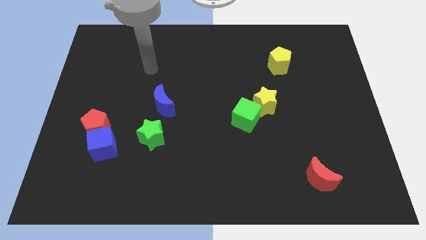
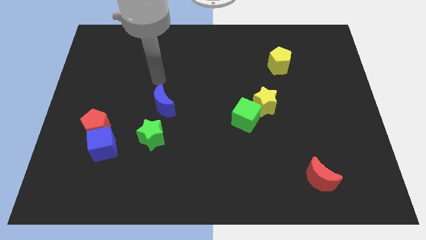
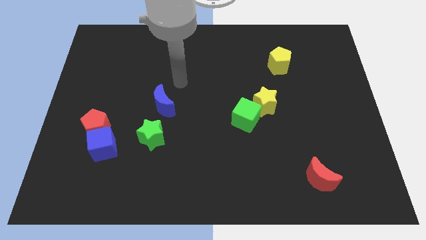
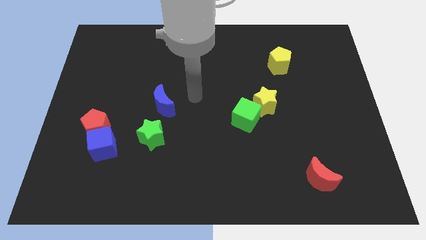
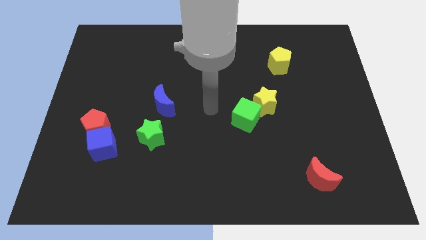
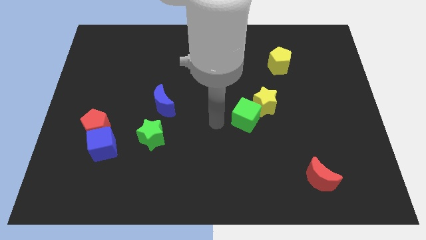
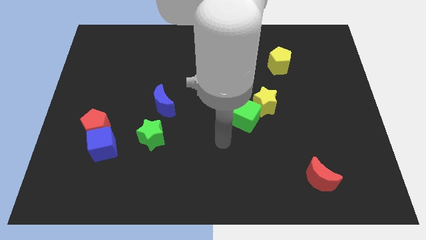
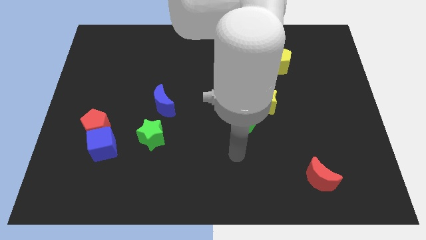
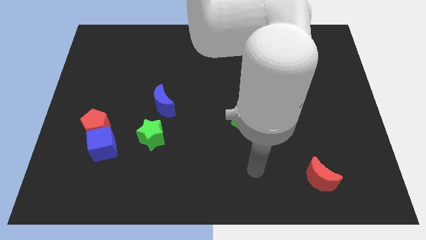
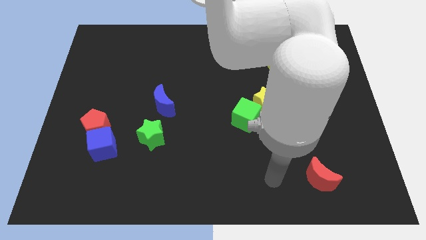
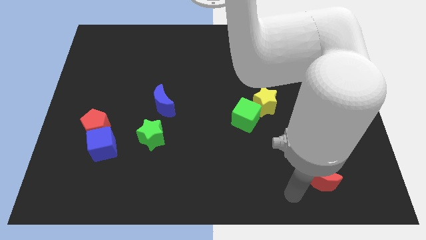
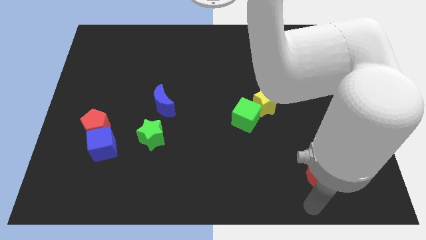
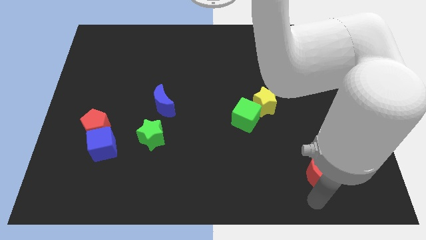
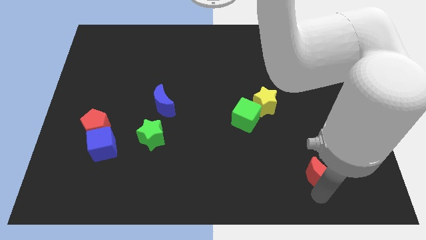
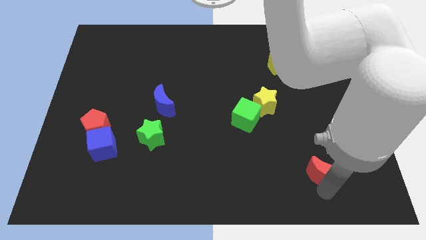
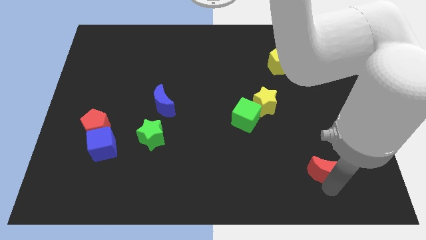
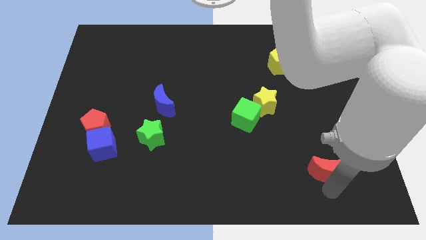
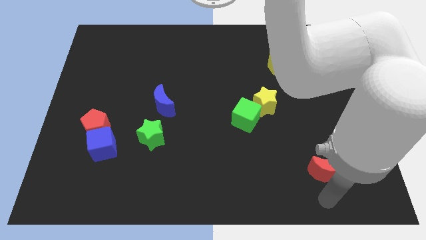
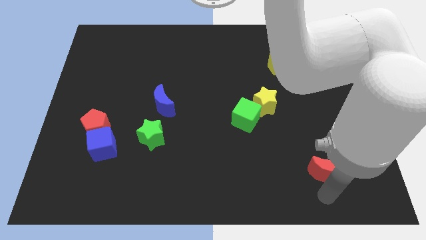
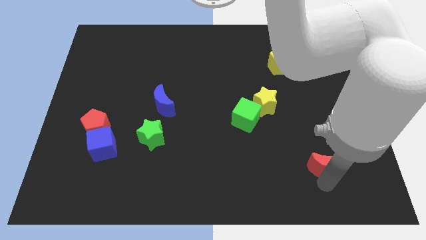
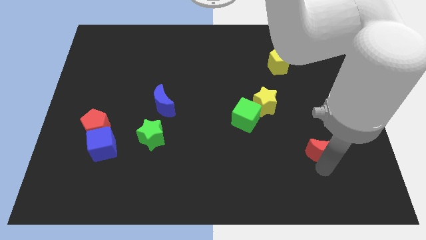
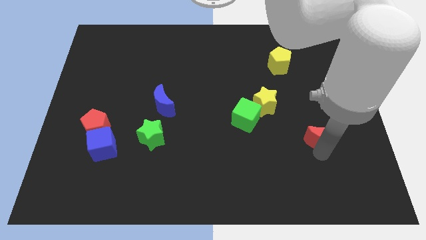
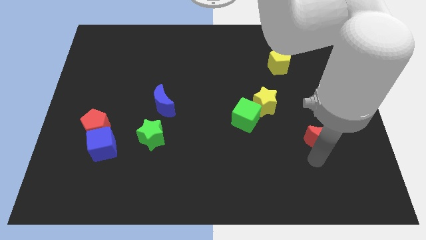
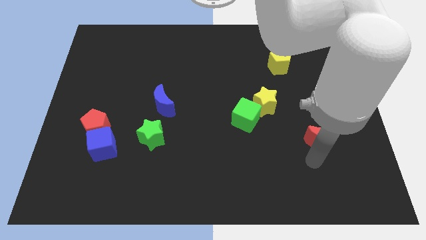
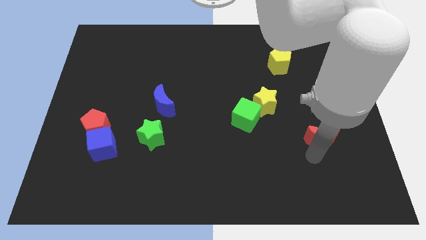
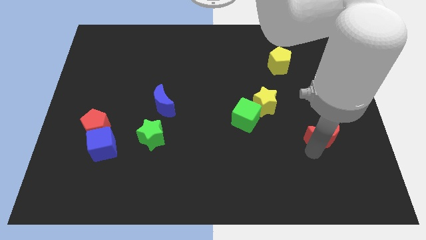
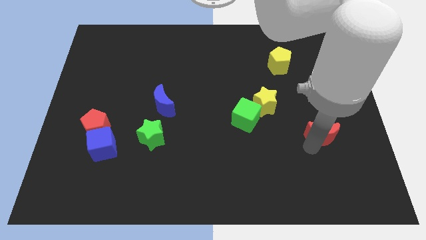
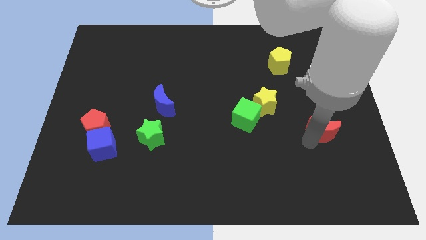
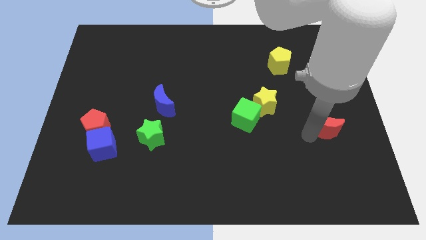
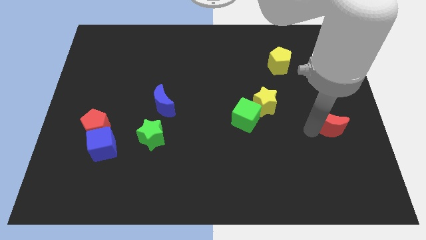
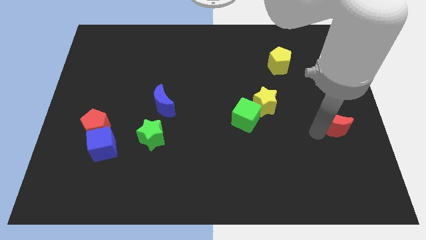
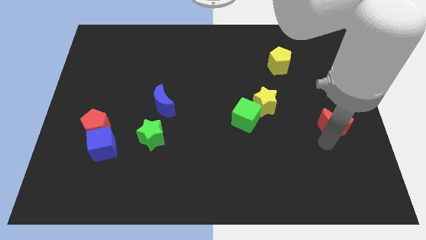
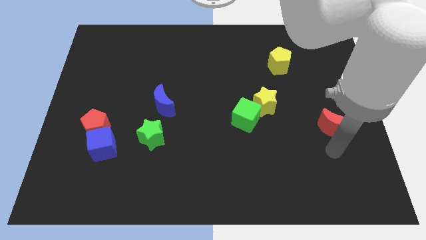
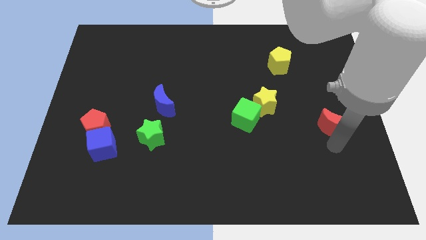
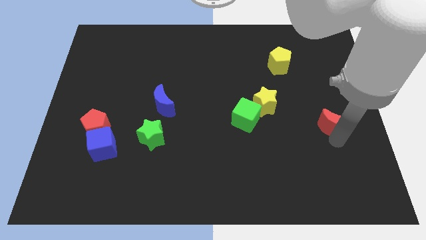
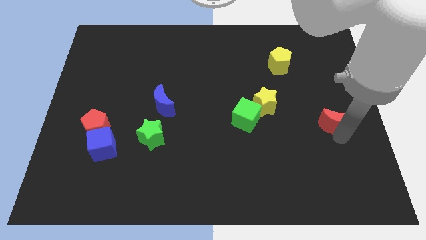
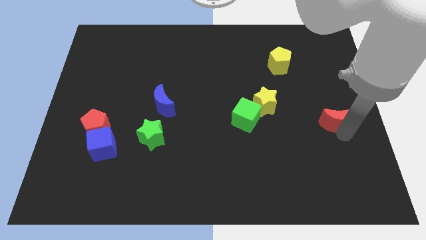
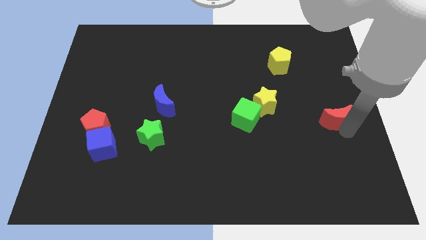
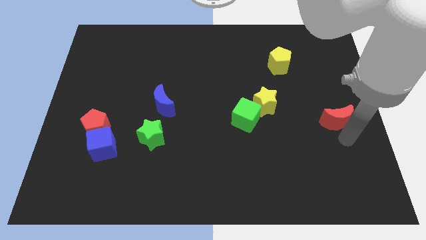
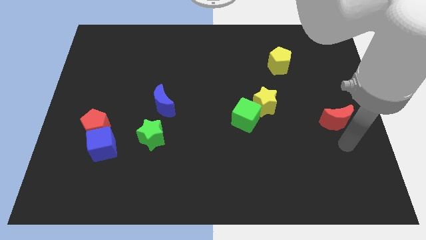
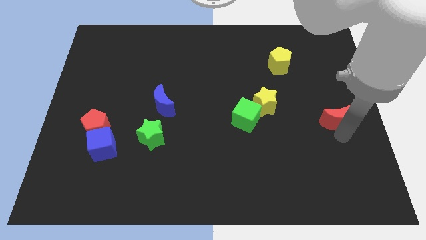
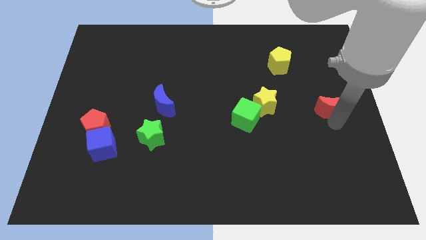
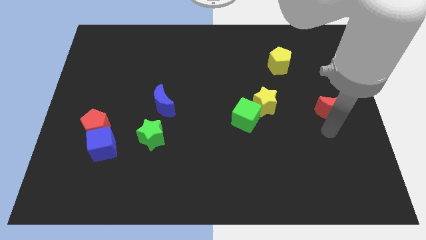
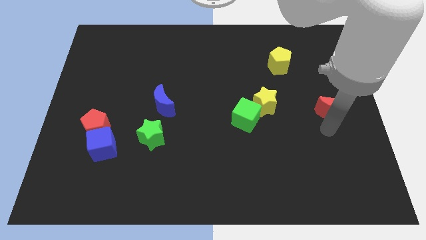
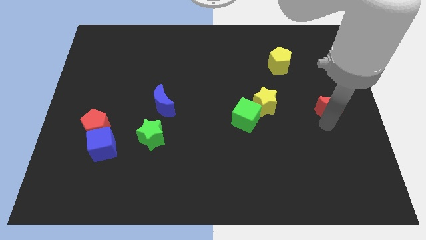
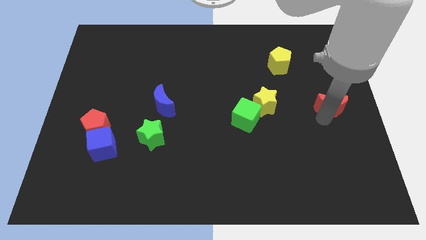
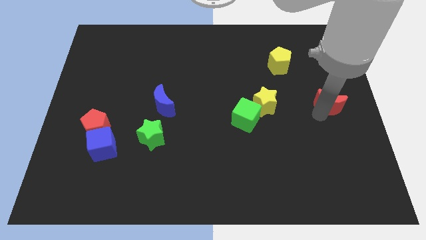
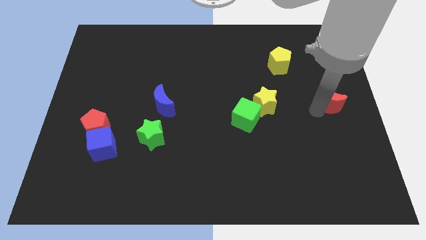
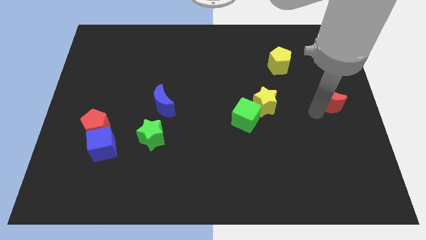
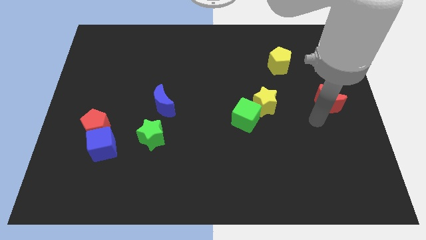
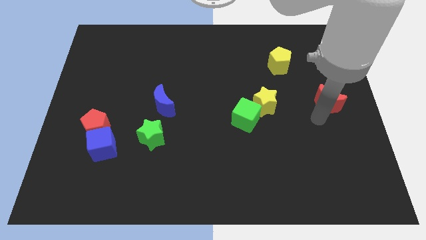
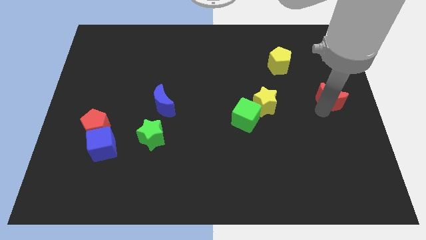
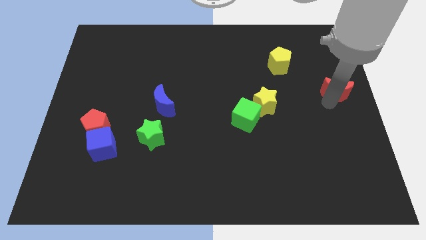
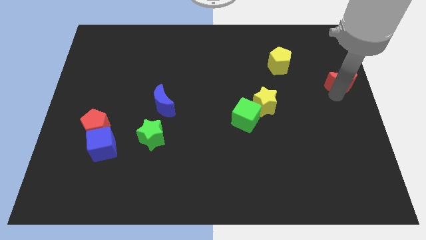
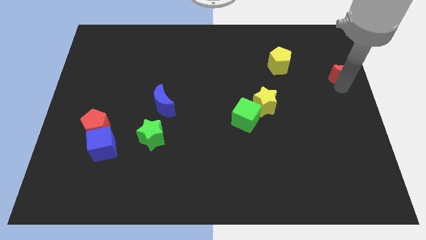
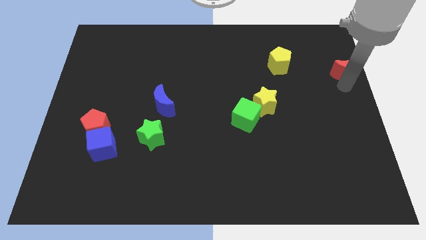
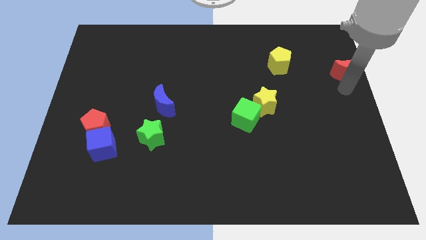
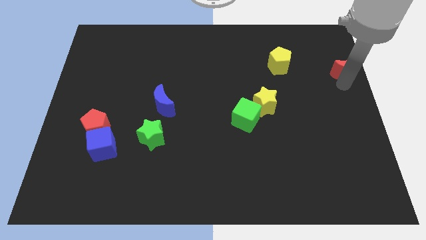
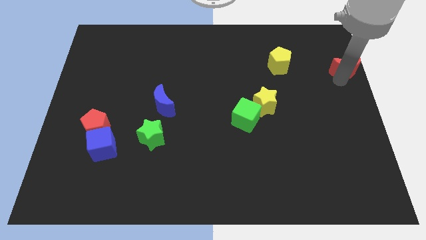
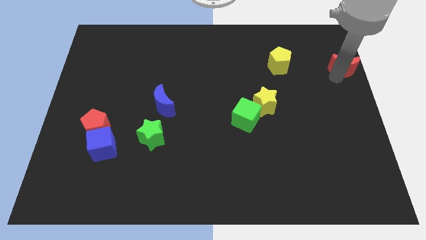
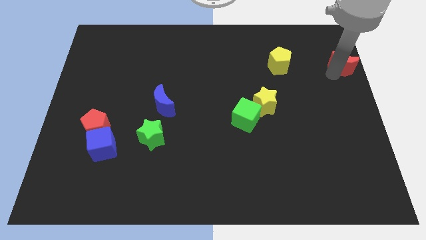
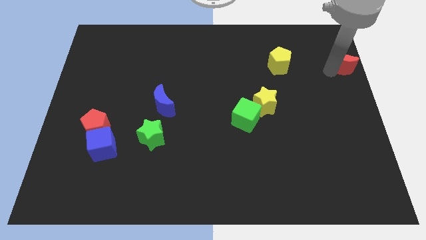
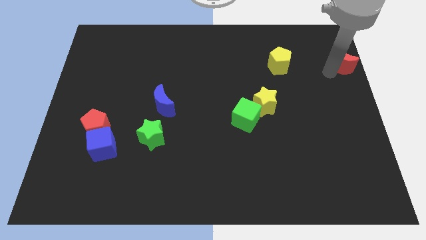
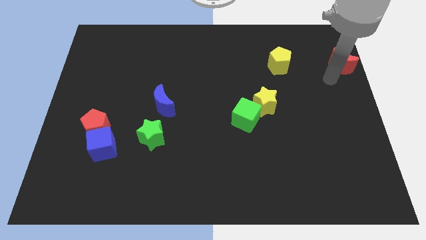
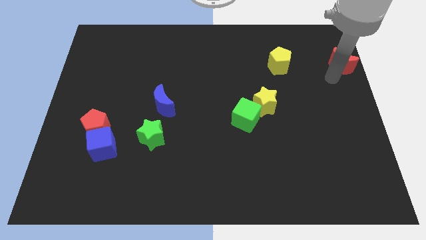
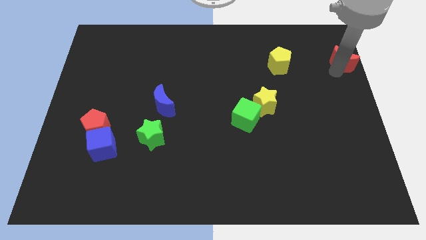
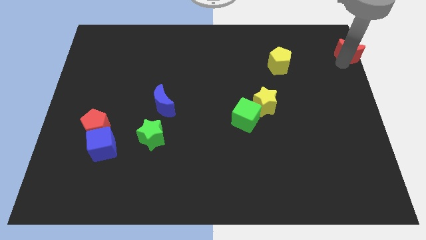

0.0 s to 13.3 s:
put the red moon to the top right

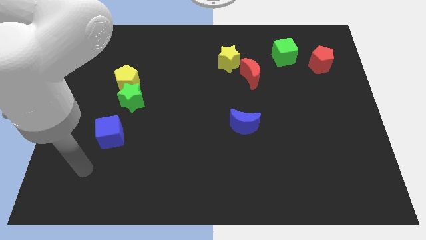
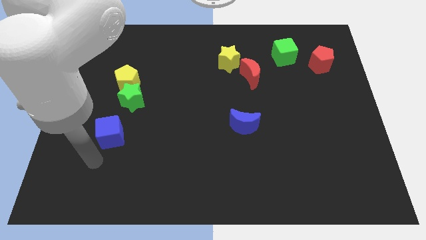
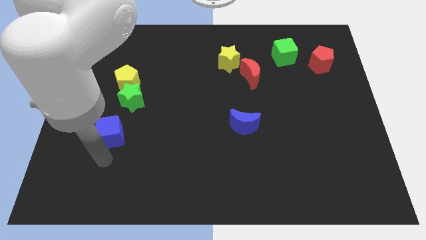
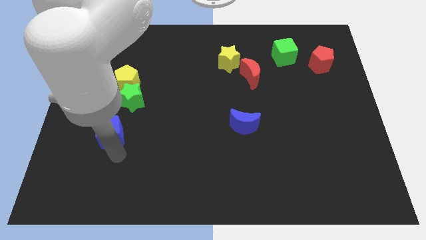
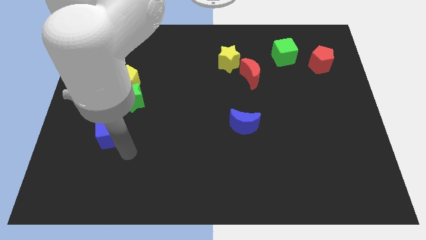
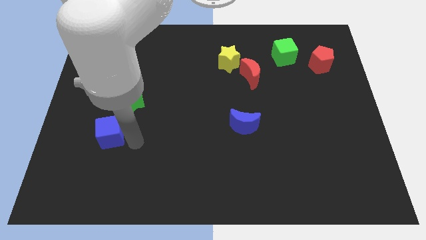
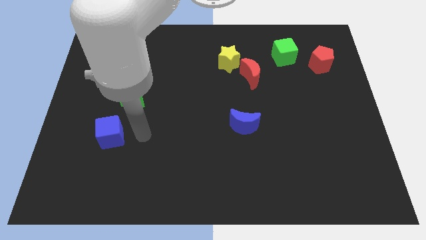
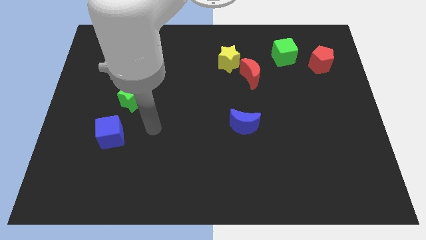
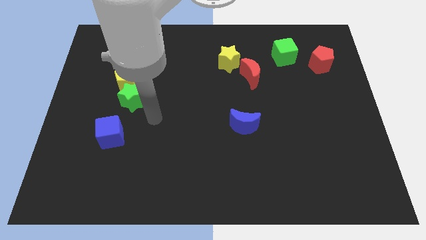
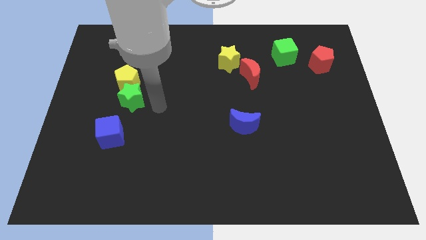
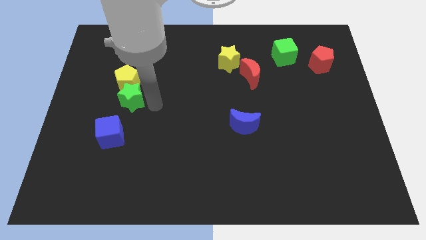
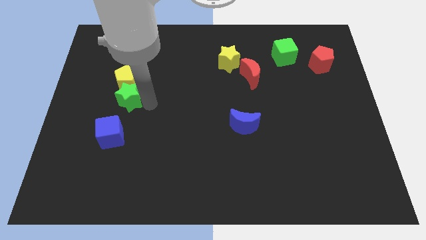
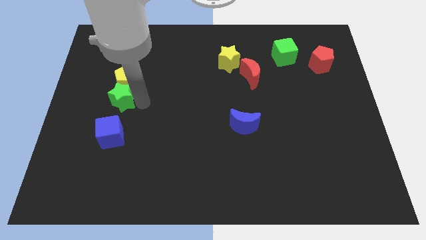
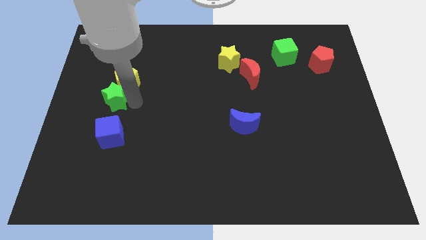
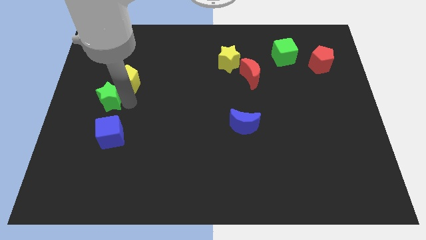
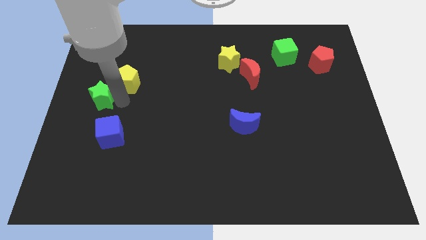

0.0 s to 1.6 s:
move the green star to the left side of the board
